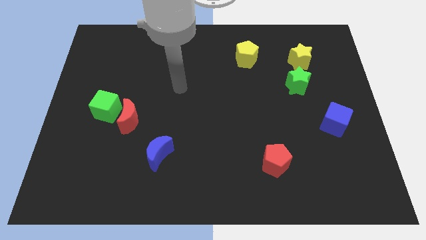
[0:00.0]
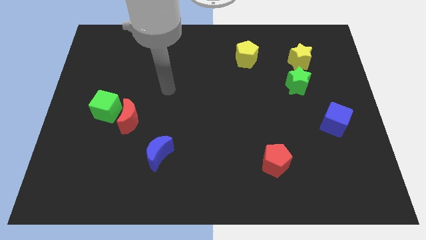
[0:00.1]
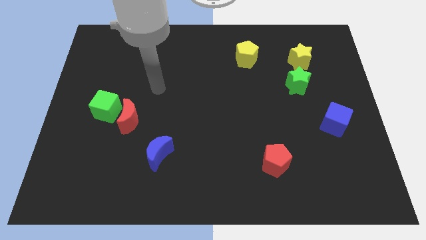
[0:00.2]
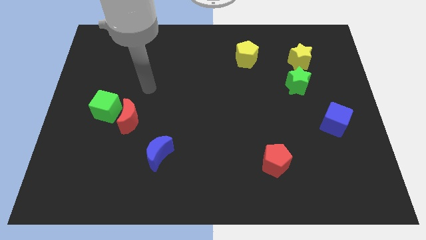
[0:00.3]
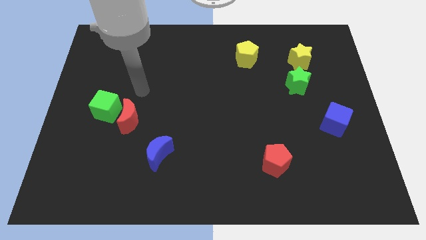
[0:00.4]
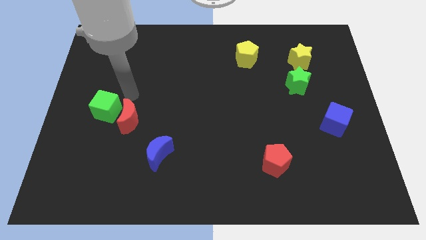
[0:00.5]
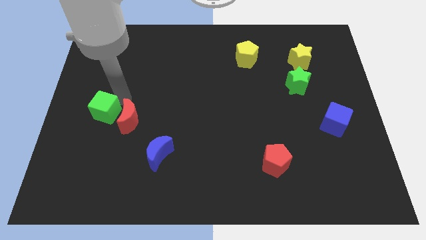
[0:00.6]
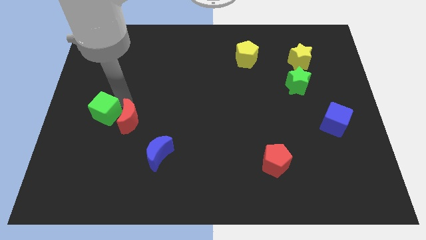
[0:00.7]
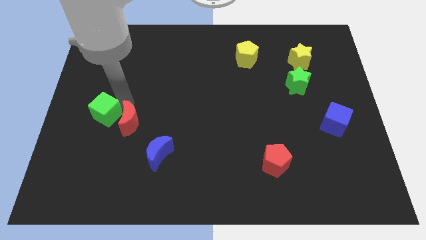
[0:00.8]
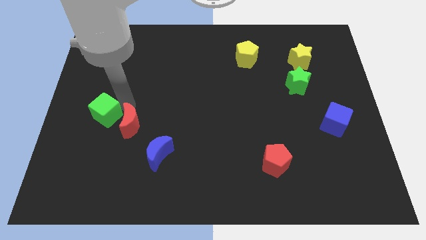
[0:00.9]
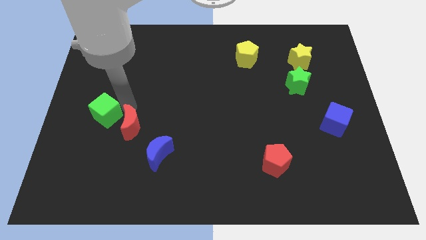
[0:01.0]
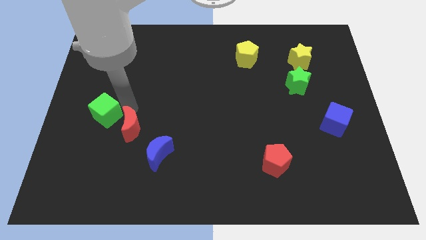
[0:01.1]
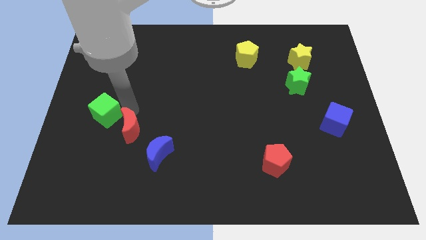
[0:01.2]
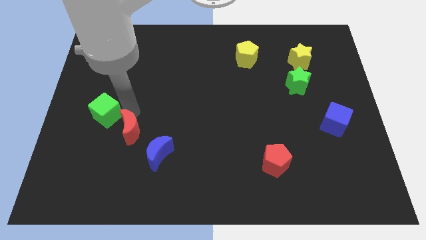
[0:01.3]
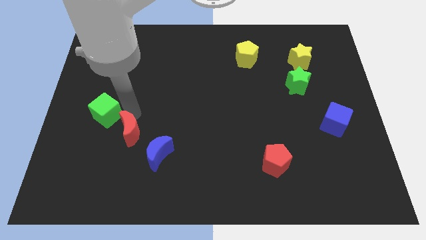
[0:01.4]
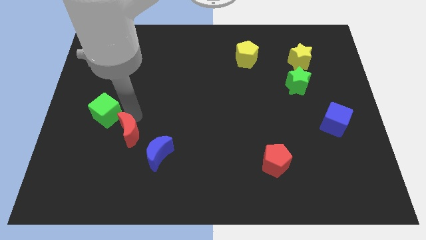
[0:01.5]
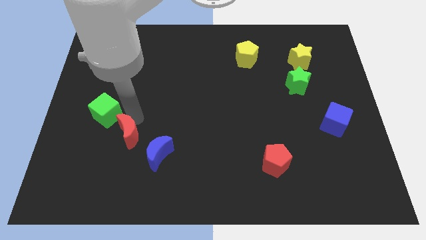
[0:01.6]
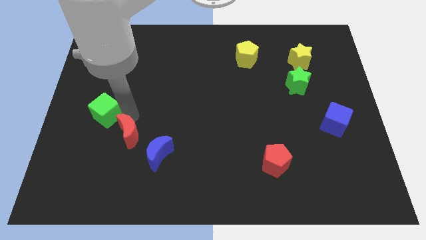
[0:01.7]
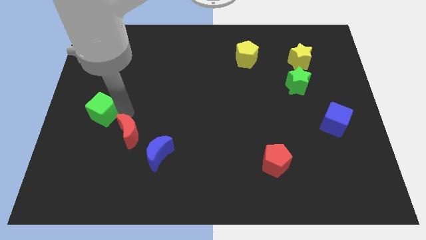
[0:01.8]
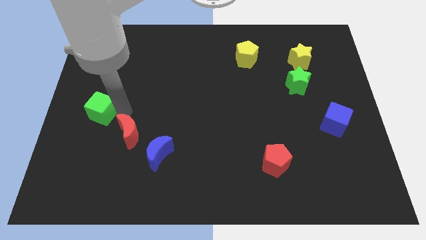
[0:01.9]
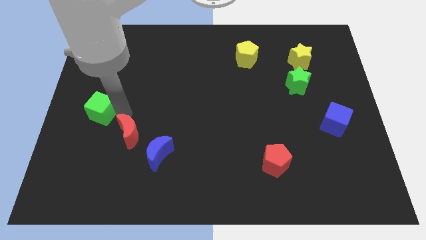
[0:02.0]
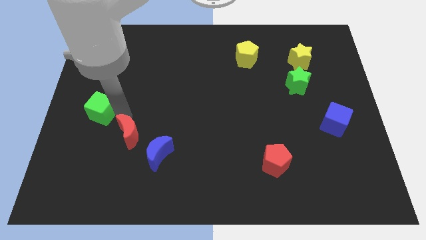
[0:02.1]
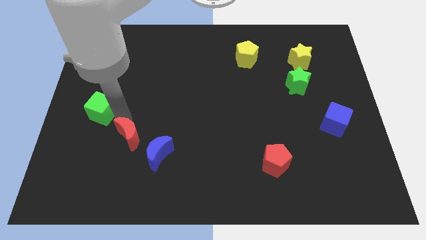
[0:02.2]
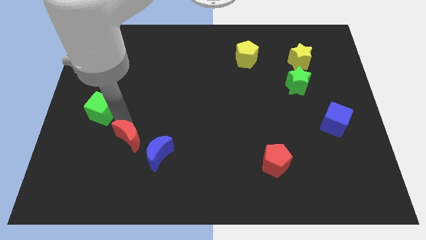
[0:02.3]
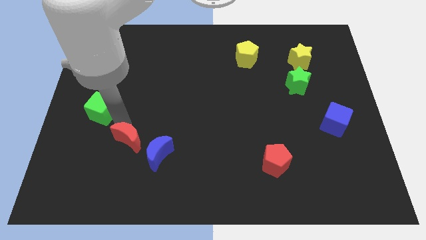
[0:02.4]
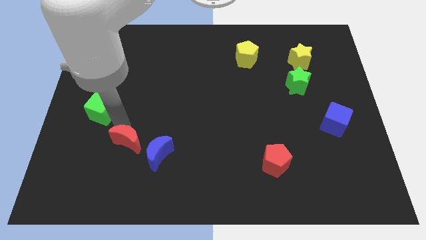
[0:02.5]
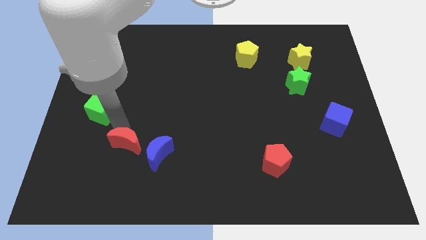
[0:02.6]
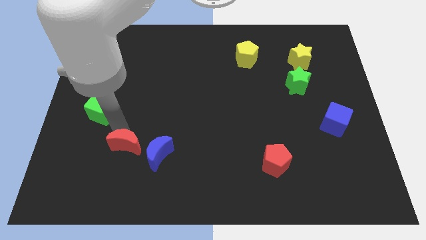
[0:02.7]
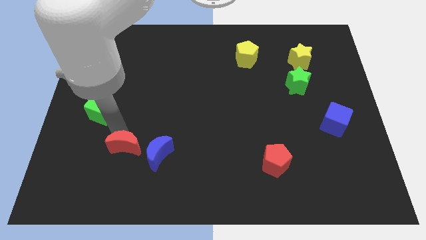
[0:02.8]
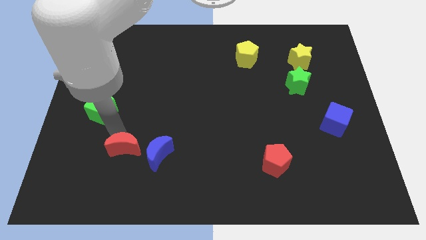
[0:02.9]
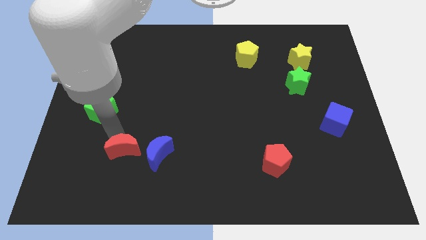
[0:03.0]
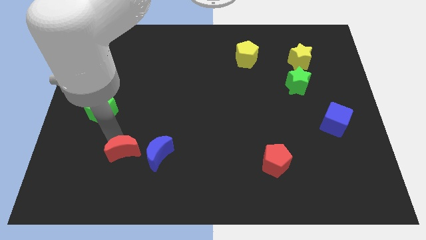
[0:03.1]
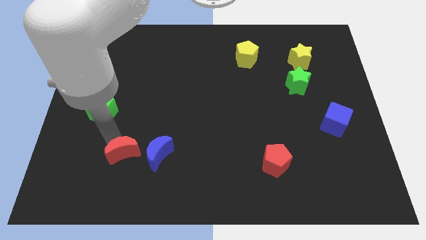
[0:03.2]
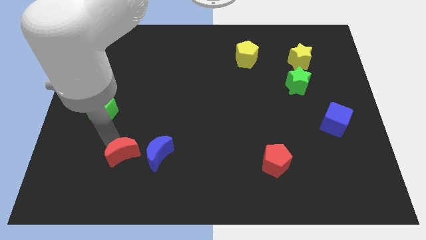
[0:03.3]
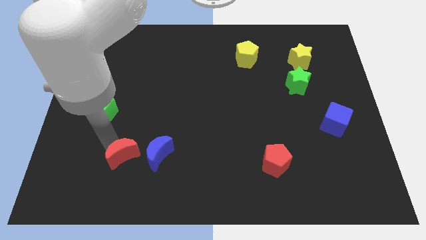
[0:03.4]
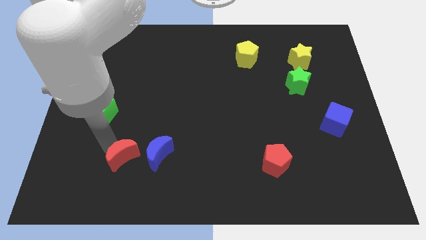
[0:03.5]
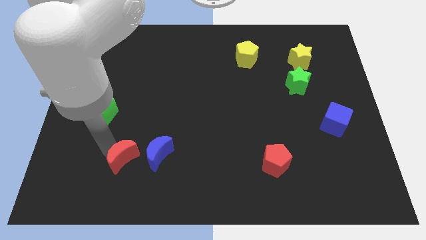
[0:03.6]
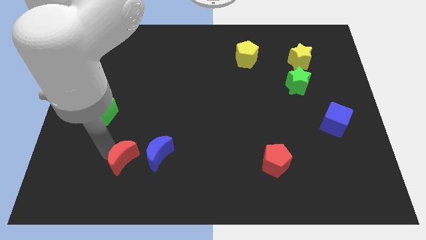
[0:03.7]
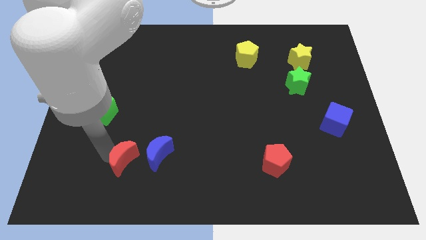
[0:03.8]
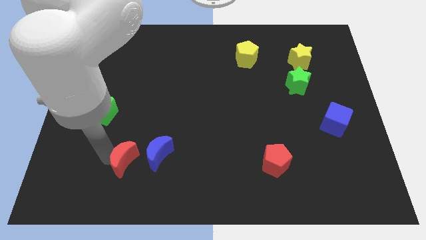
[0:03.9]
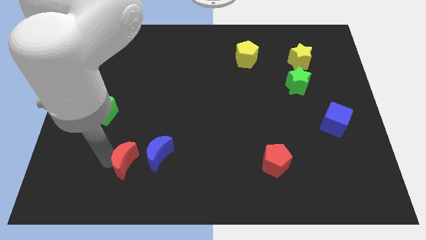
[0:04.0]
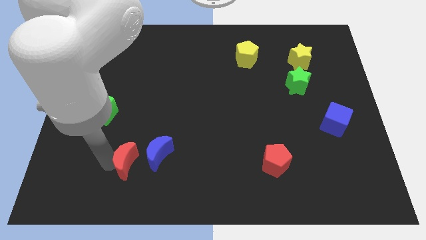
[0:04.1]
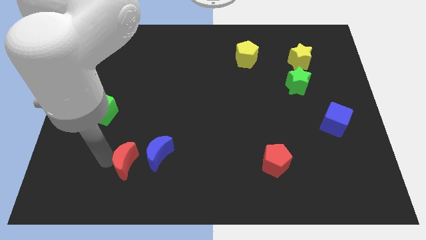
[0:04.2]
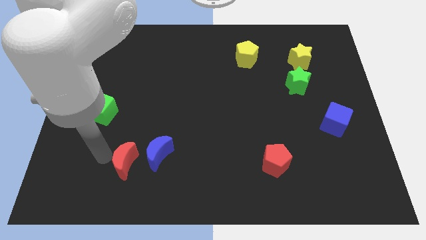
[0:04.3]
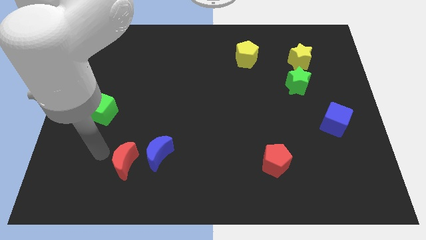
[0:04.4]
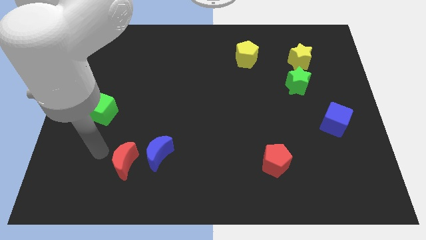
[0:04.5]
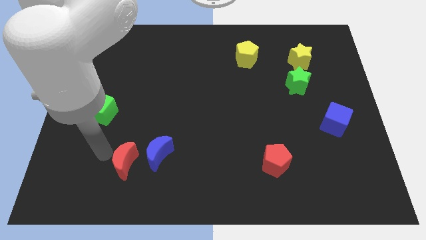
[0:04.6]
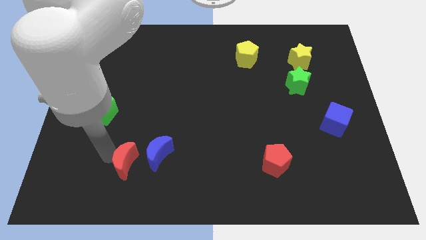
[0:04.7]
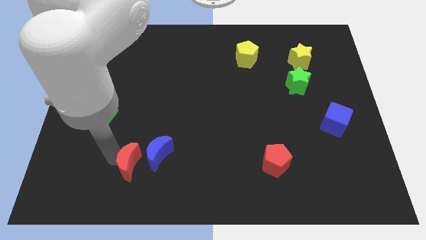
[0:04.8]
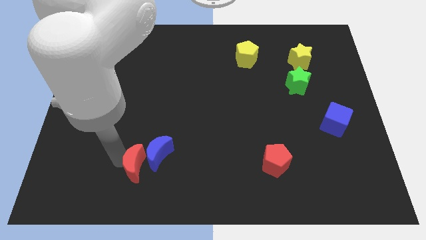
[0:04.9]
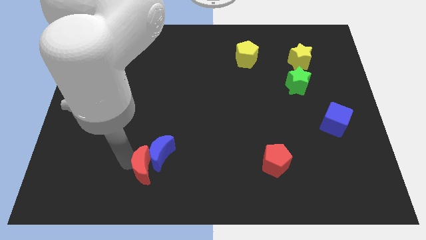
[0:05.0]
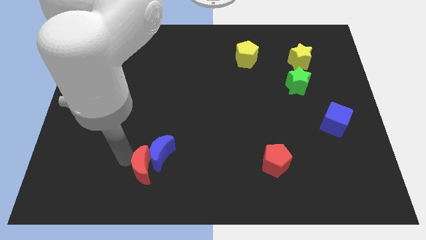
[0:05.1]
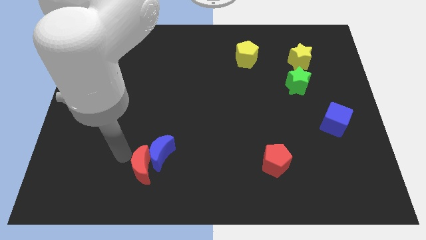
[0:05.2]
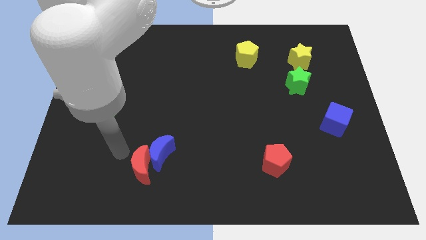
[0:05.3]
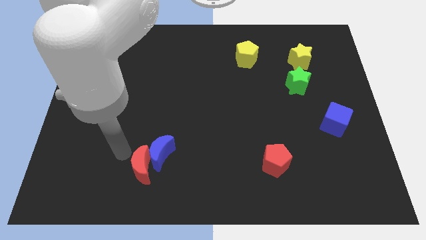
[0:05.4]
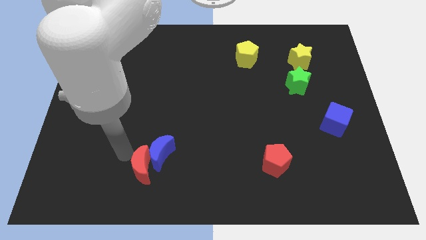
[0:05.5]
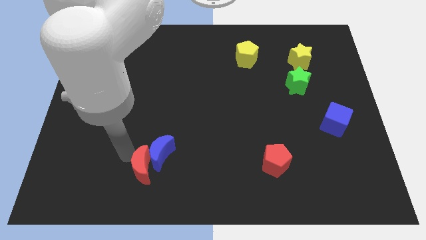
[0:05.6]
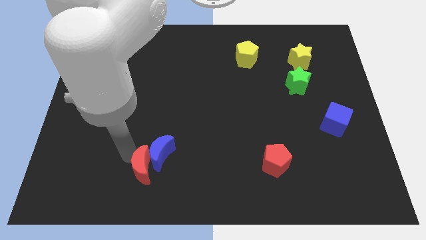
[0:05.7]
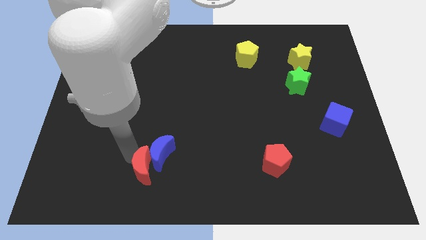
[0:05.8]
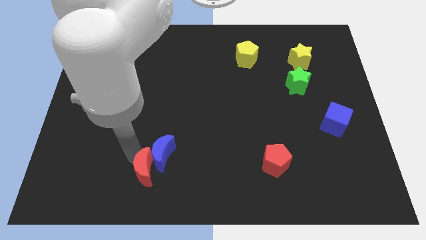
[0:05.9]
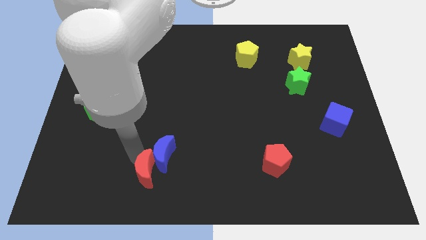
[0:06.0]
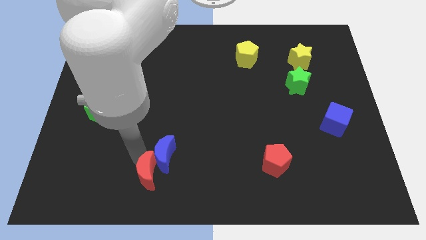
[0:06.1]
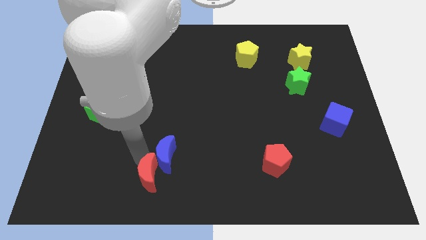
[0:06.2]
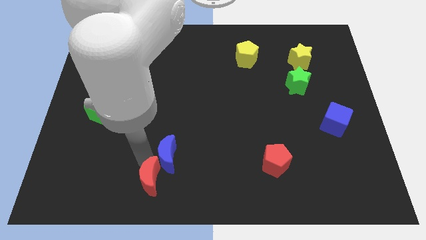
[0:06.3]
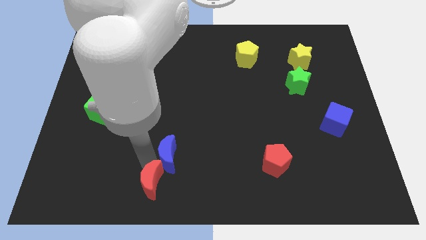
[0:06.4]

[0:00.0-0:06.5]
move the red moon to the bottom
